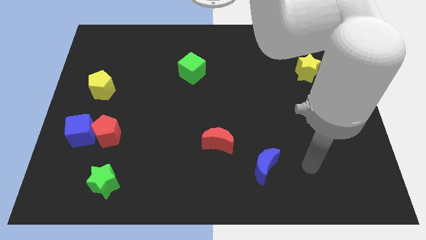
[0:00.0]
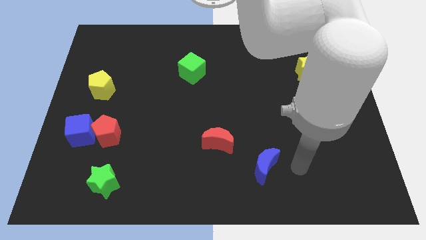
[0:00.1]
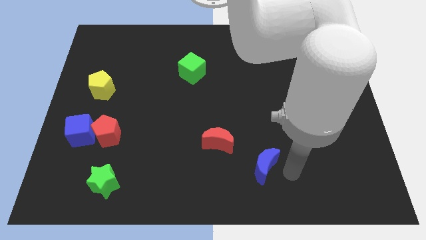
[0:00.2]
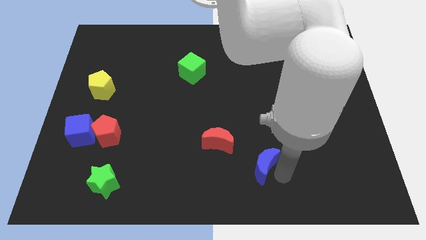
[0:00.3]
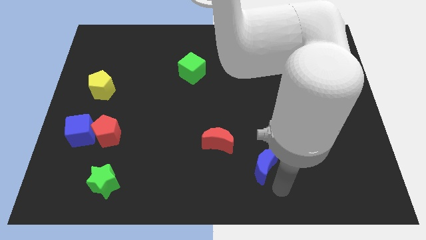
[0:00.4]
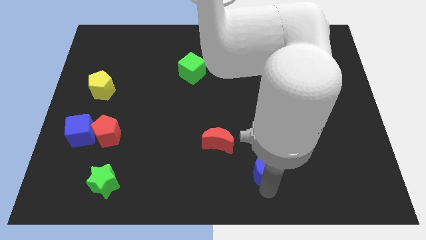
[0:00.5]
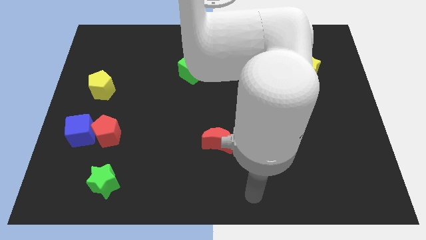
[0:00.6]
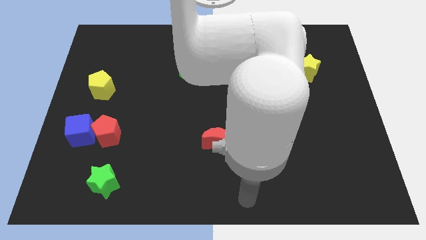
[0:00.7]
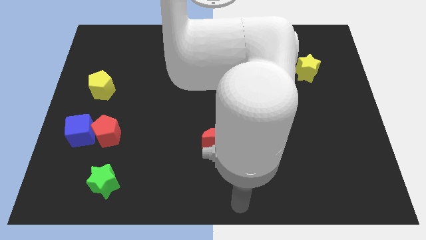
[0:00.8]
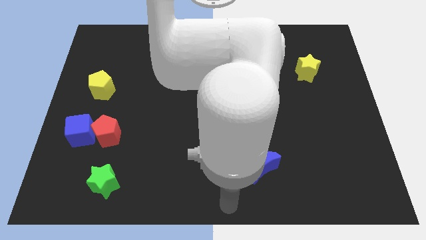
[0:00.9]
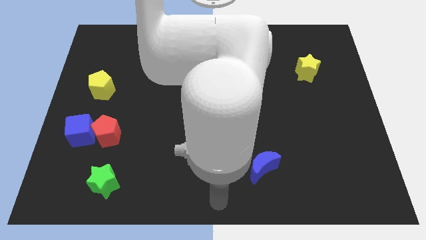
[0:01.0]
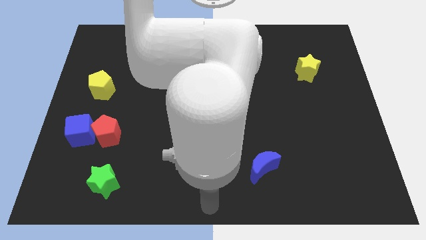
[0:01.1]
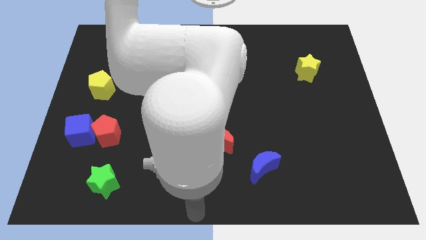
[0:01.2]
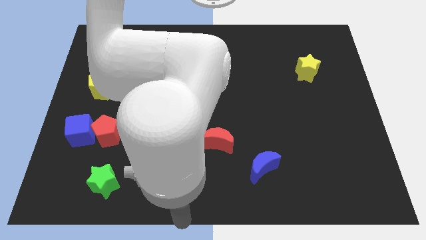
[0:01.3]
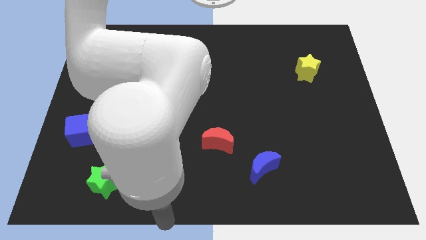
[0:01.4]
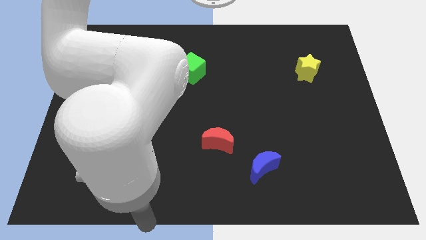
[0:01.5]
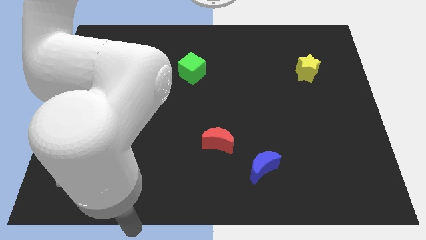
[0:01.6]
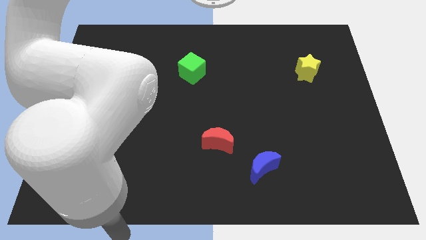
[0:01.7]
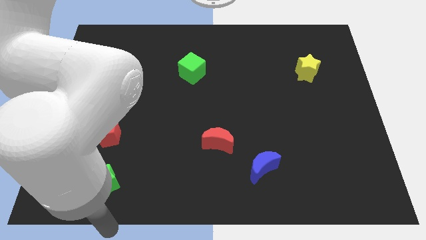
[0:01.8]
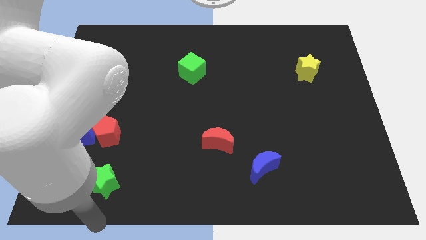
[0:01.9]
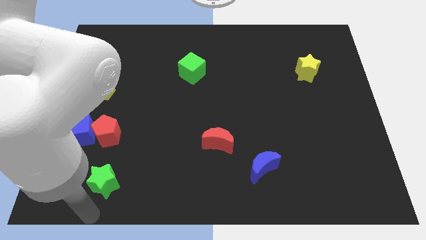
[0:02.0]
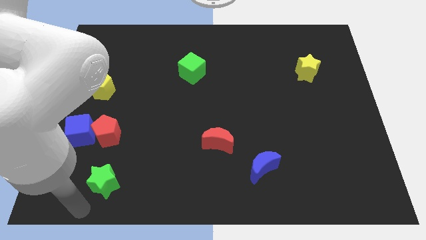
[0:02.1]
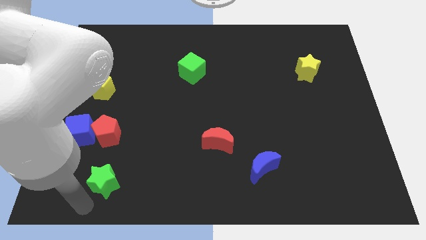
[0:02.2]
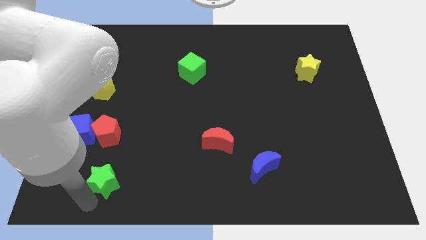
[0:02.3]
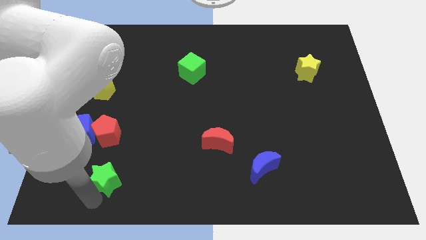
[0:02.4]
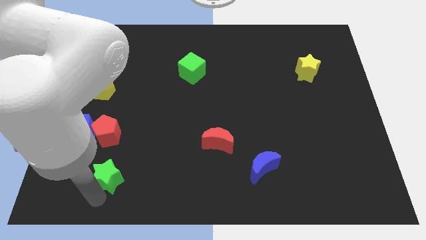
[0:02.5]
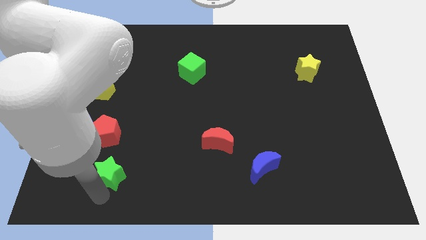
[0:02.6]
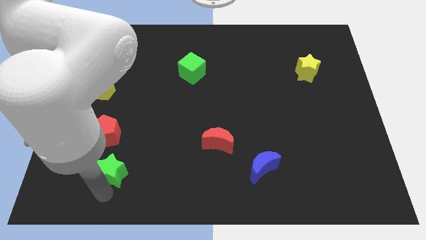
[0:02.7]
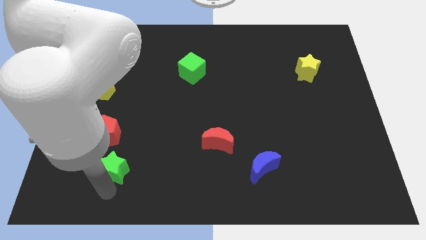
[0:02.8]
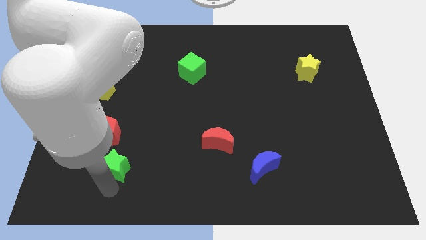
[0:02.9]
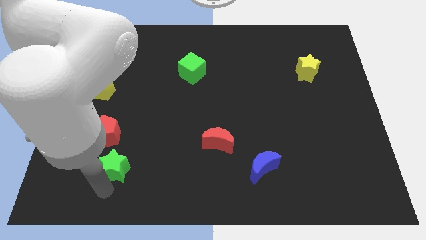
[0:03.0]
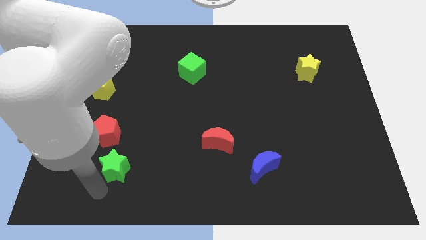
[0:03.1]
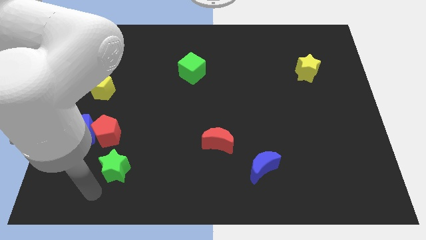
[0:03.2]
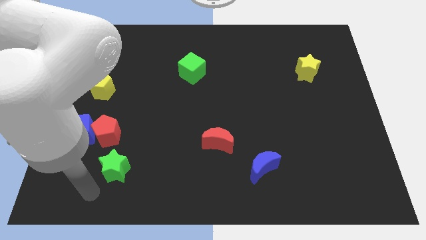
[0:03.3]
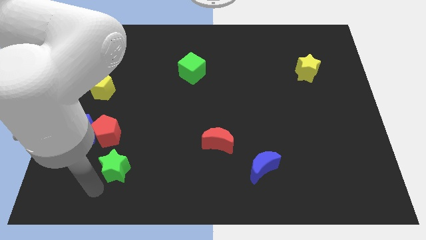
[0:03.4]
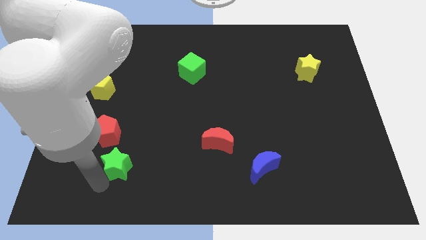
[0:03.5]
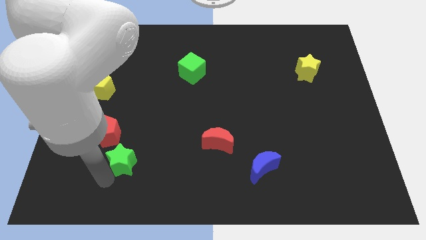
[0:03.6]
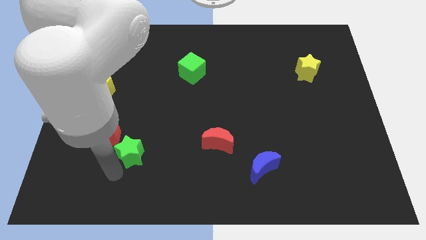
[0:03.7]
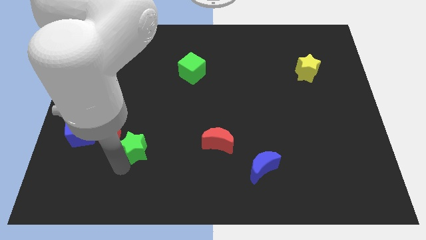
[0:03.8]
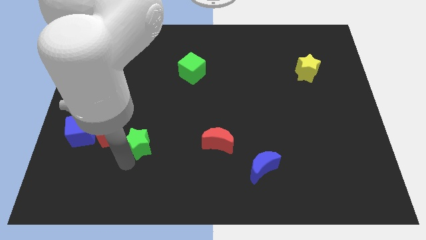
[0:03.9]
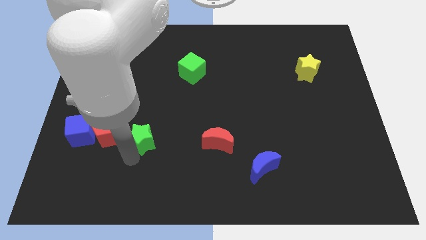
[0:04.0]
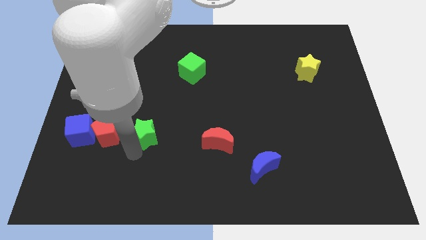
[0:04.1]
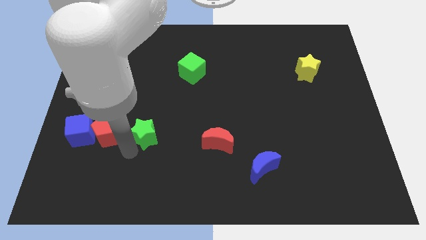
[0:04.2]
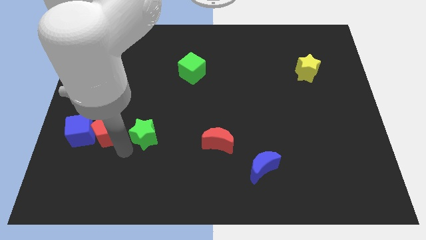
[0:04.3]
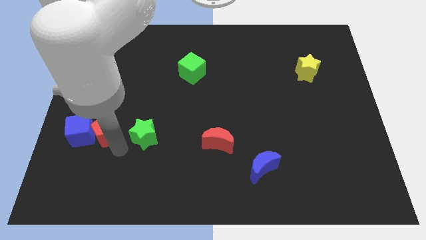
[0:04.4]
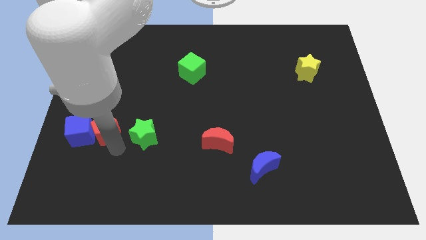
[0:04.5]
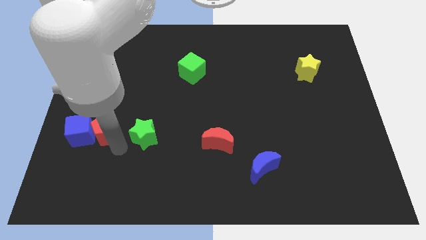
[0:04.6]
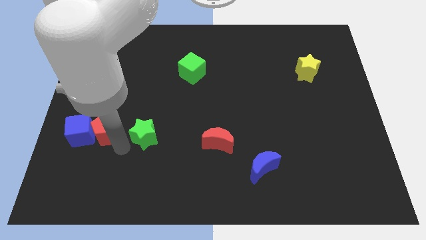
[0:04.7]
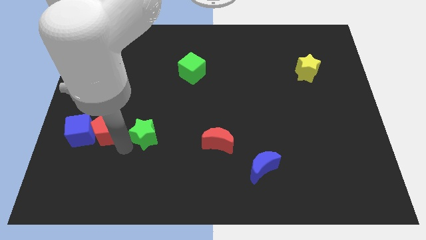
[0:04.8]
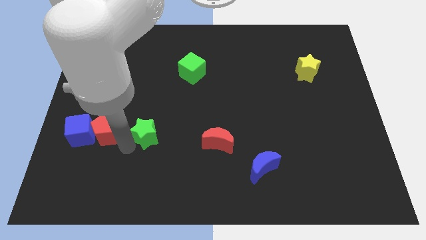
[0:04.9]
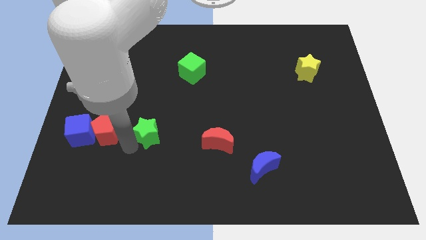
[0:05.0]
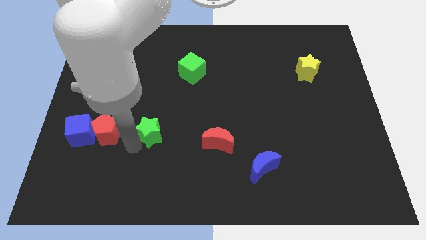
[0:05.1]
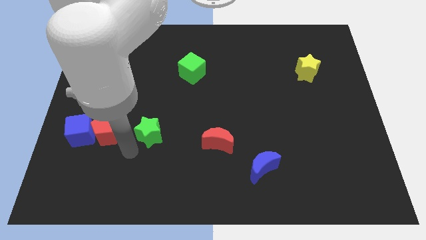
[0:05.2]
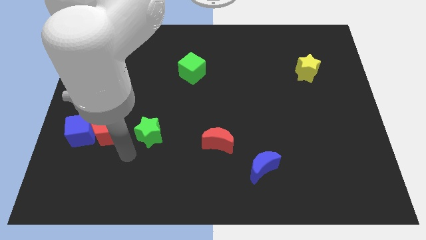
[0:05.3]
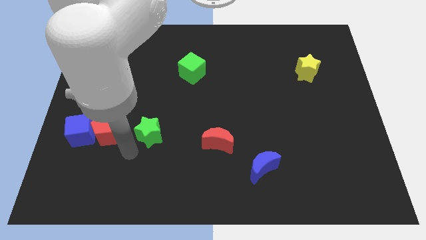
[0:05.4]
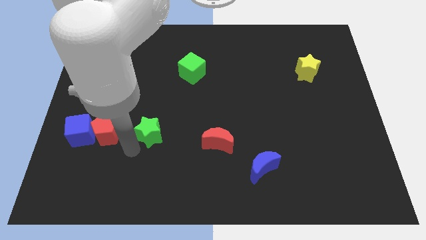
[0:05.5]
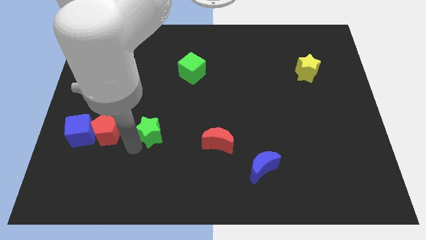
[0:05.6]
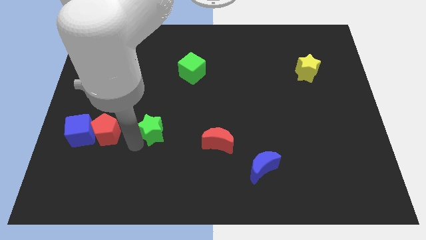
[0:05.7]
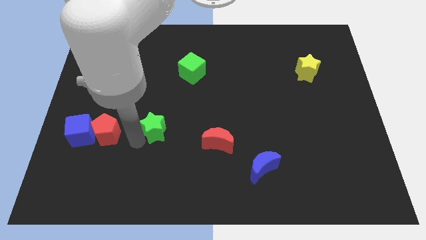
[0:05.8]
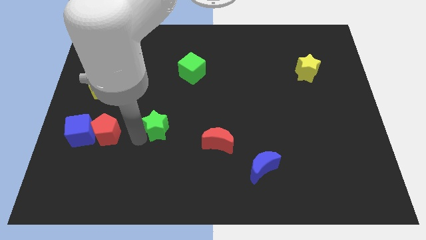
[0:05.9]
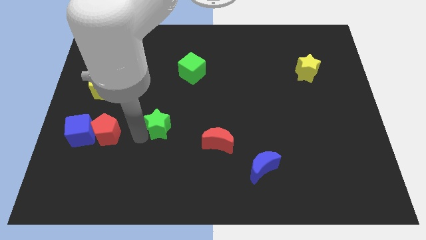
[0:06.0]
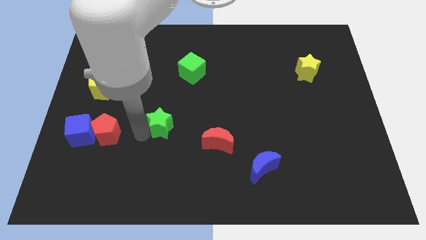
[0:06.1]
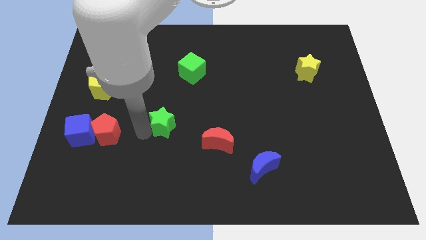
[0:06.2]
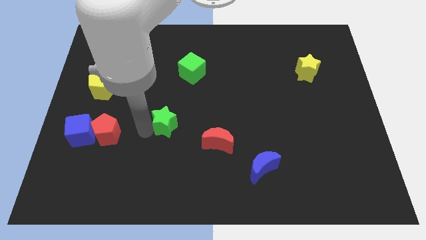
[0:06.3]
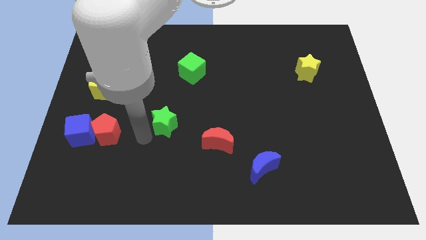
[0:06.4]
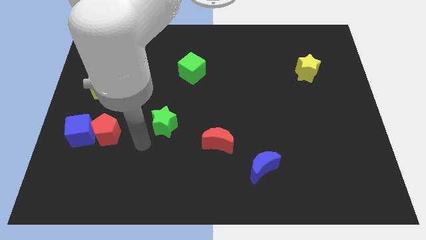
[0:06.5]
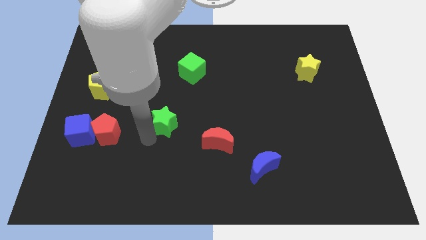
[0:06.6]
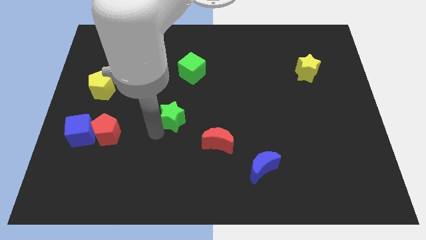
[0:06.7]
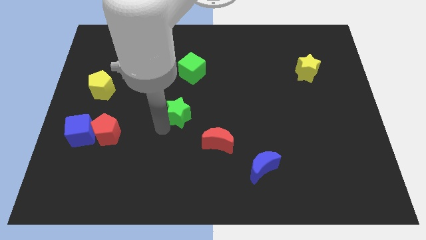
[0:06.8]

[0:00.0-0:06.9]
put the green star below the green cube

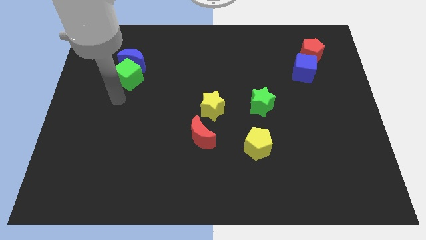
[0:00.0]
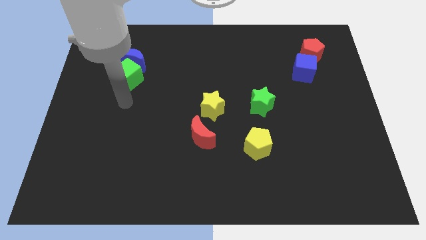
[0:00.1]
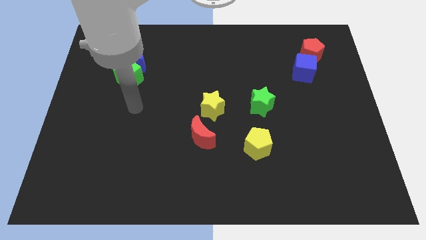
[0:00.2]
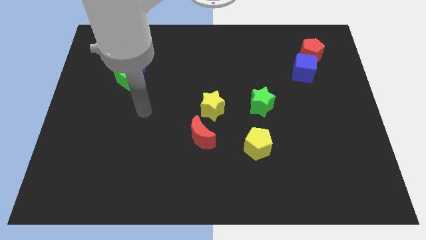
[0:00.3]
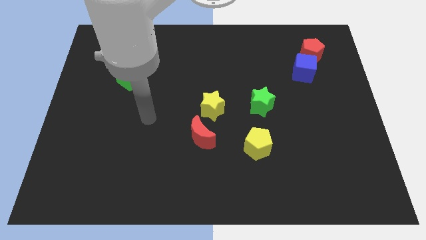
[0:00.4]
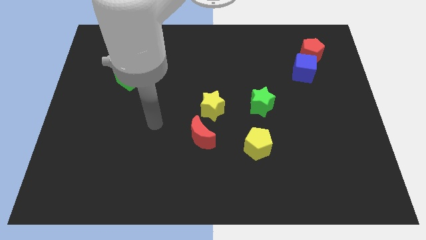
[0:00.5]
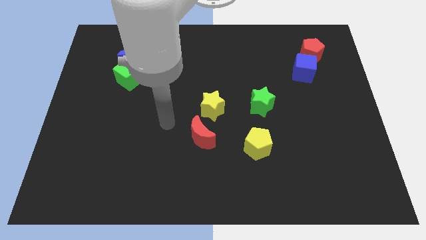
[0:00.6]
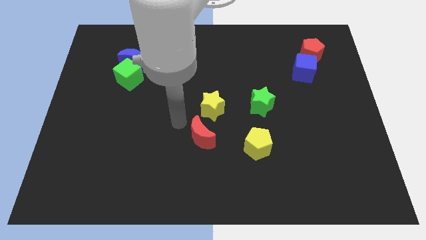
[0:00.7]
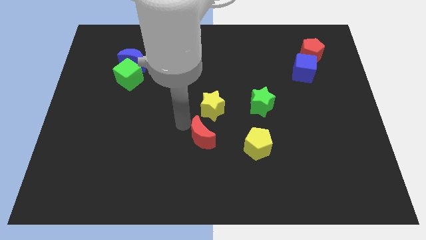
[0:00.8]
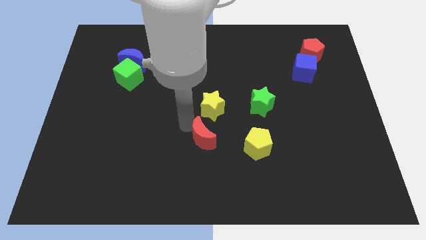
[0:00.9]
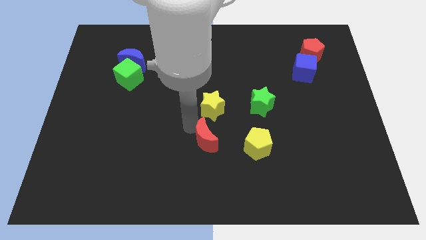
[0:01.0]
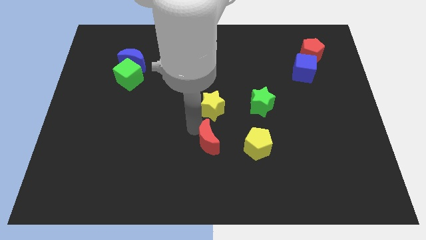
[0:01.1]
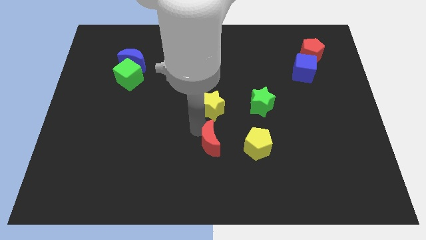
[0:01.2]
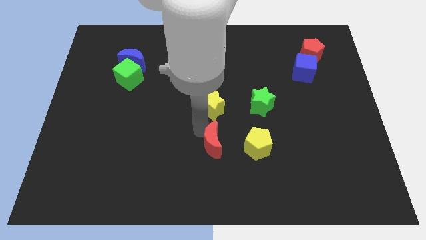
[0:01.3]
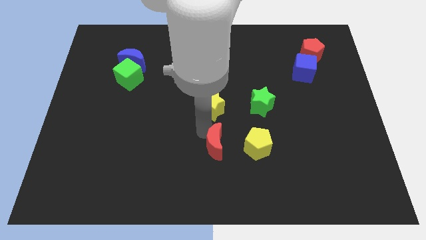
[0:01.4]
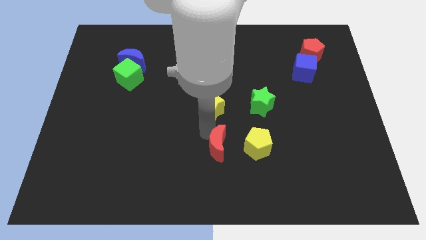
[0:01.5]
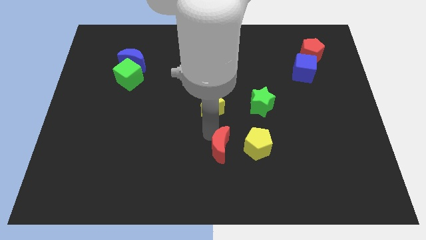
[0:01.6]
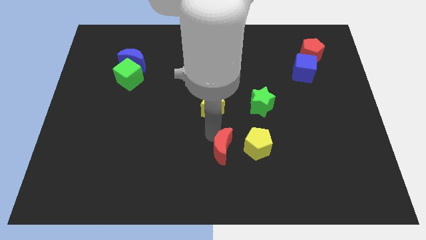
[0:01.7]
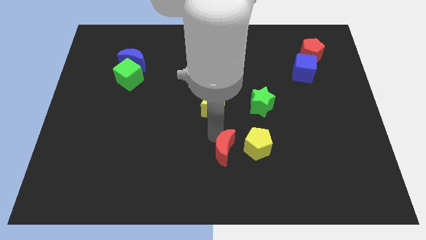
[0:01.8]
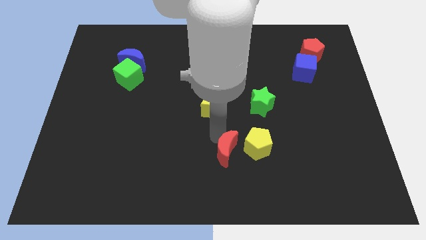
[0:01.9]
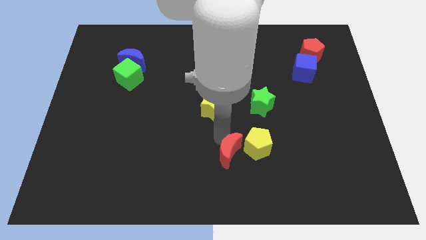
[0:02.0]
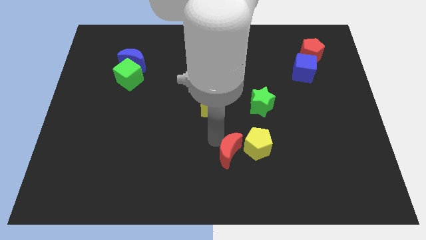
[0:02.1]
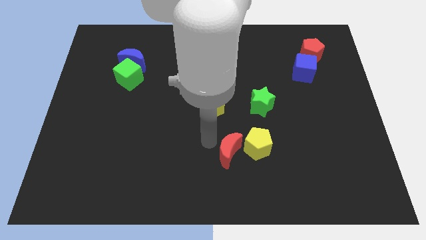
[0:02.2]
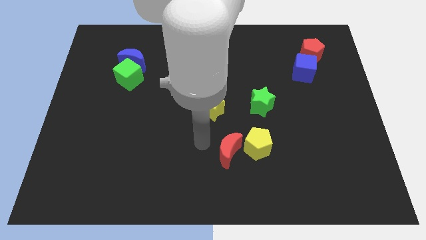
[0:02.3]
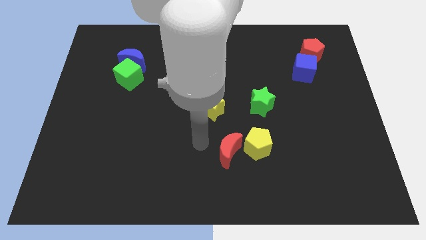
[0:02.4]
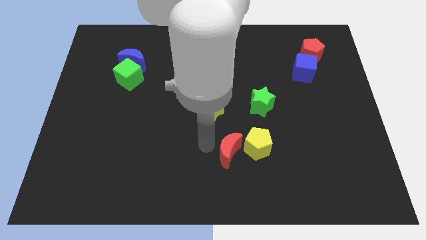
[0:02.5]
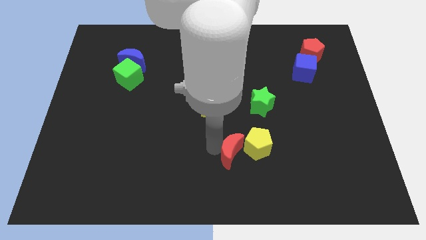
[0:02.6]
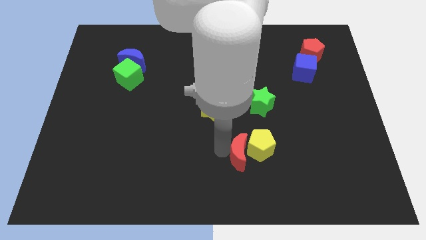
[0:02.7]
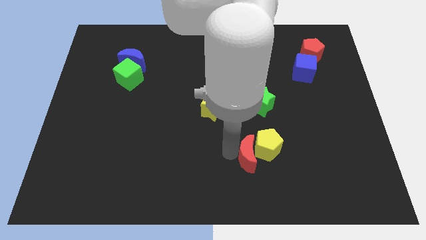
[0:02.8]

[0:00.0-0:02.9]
push the red moon below the green star
